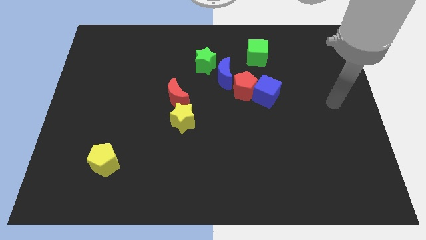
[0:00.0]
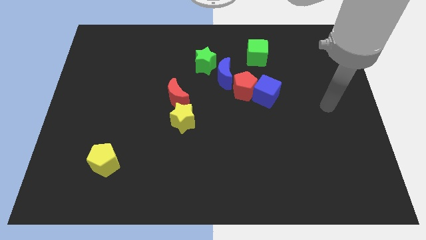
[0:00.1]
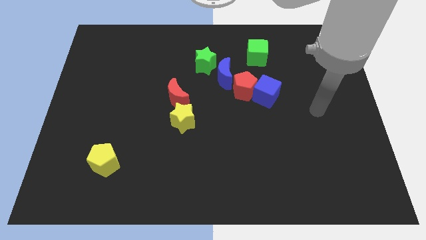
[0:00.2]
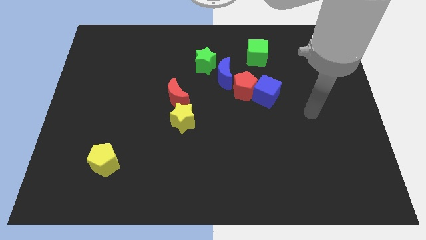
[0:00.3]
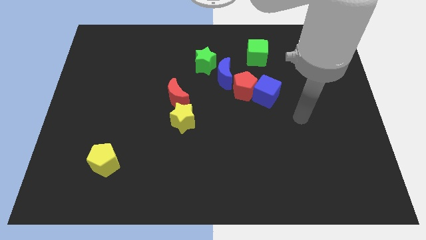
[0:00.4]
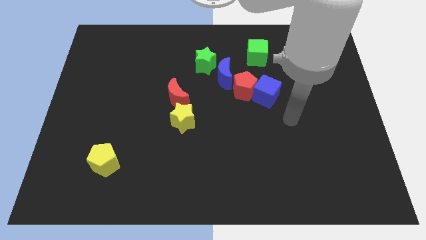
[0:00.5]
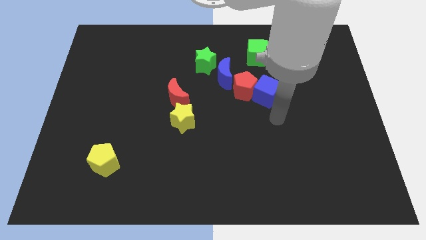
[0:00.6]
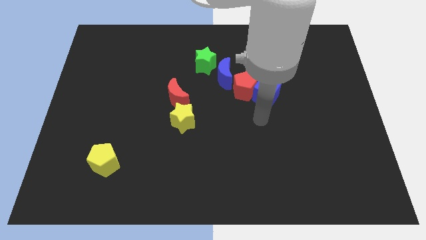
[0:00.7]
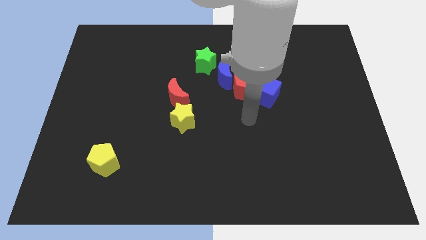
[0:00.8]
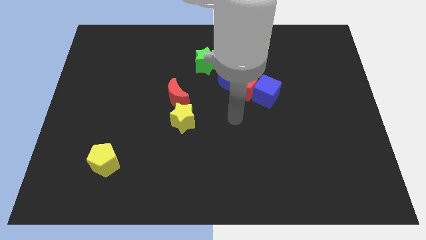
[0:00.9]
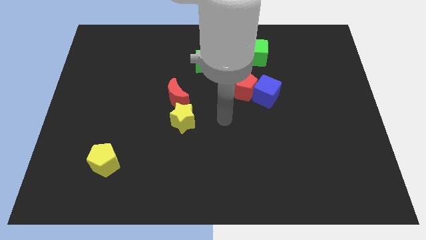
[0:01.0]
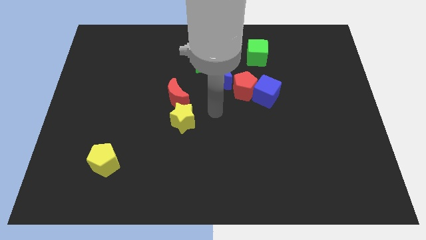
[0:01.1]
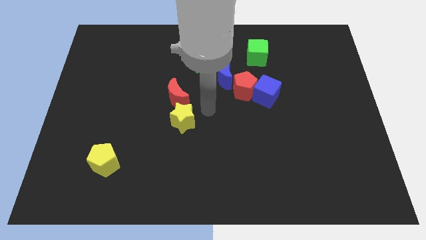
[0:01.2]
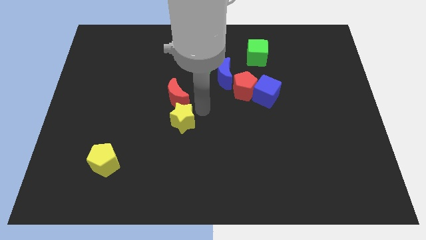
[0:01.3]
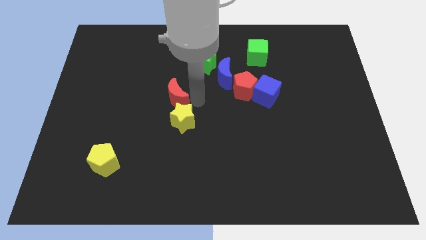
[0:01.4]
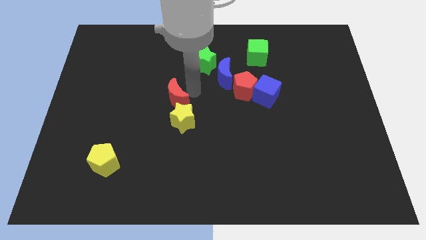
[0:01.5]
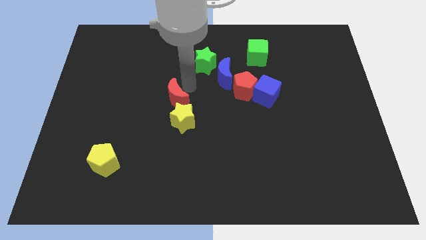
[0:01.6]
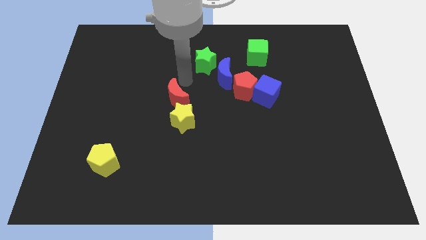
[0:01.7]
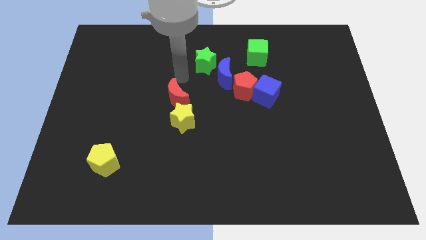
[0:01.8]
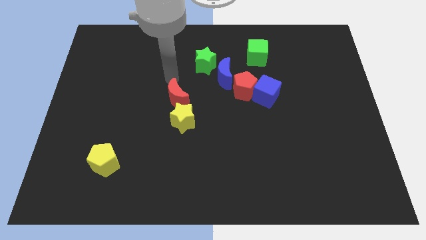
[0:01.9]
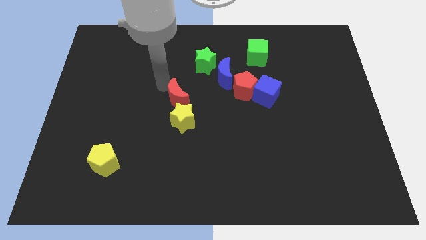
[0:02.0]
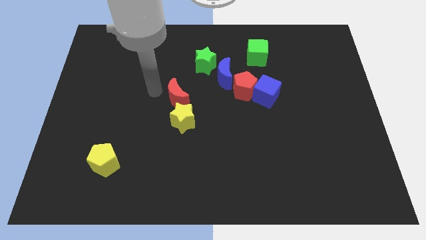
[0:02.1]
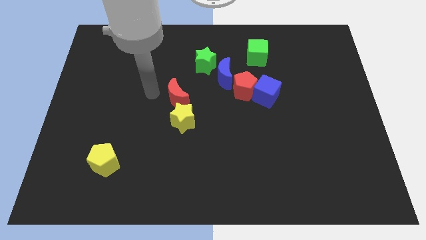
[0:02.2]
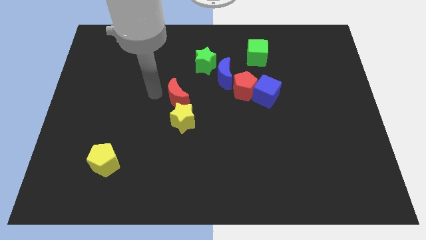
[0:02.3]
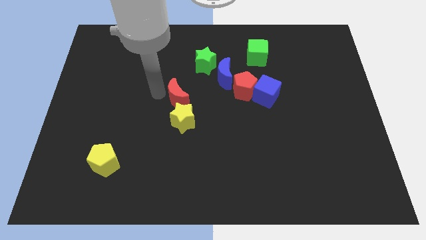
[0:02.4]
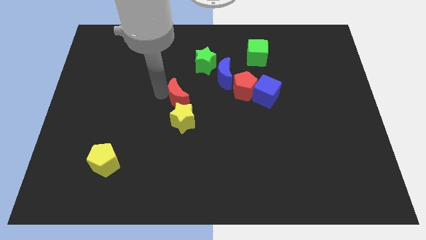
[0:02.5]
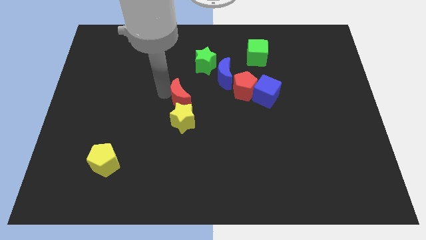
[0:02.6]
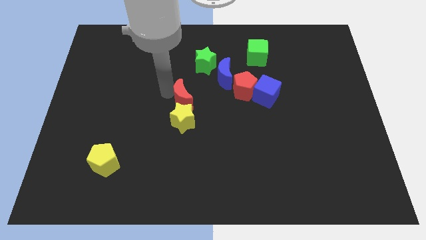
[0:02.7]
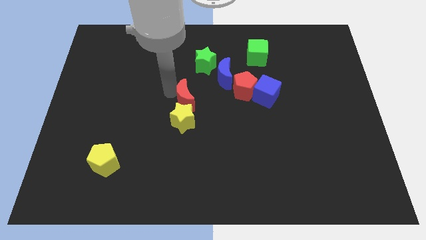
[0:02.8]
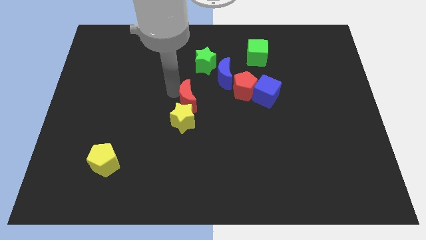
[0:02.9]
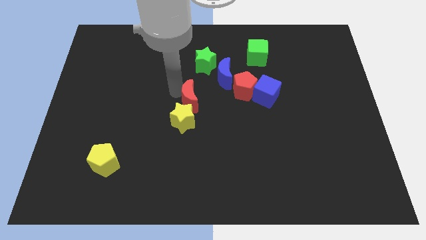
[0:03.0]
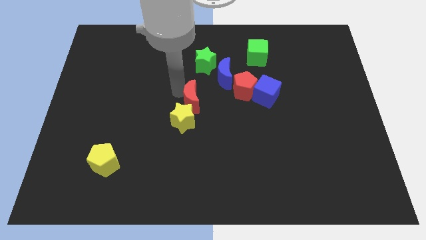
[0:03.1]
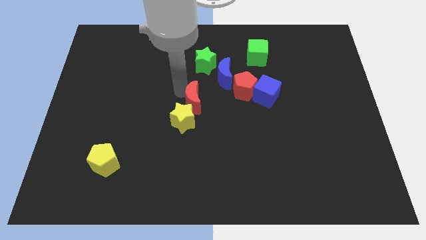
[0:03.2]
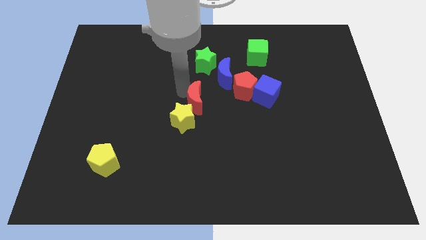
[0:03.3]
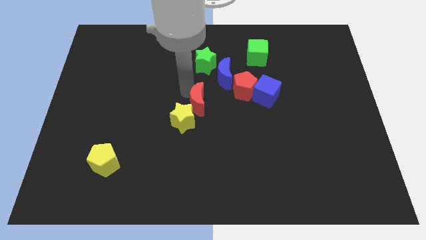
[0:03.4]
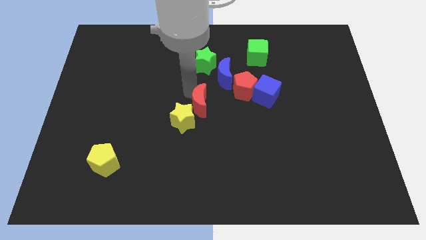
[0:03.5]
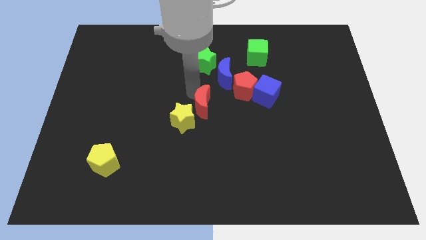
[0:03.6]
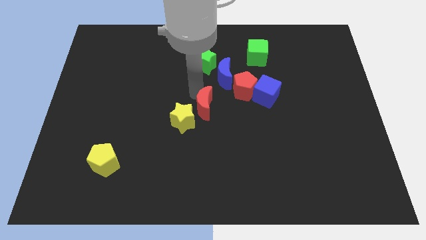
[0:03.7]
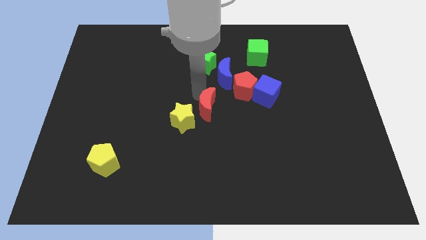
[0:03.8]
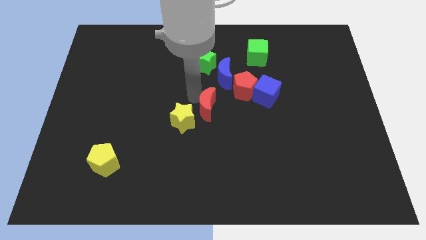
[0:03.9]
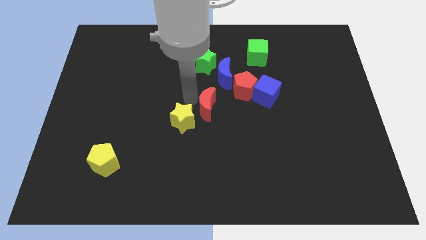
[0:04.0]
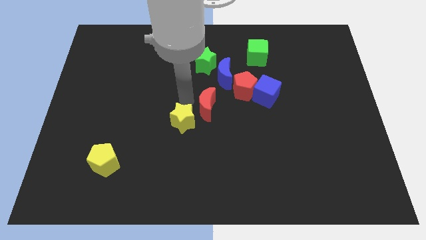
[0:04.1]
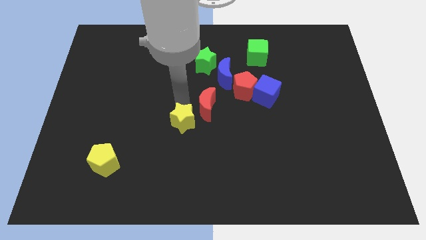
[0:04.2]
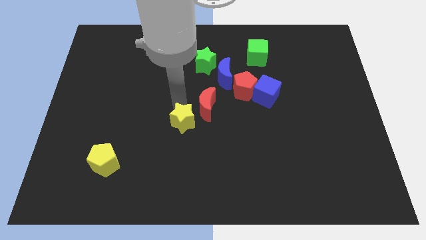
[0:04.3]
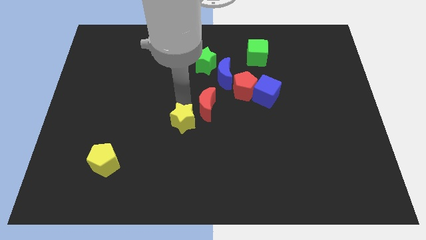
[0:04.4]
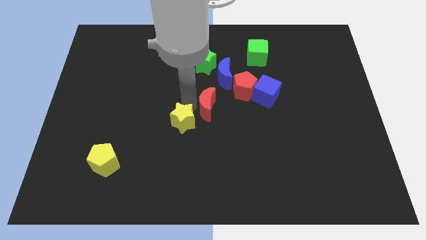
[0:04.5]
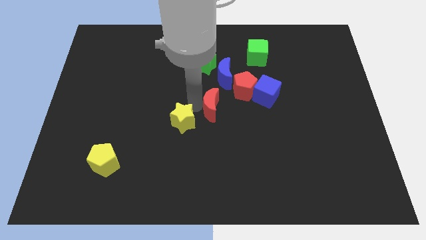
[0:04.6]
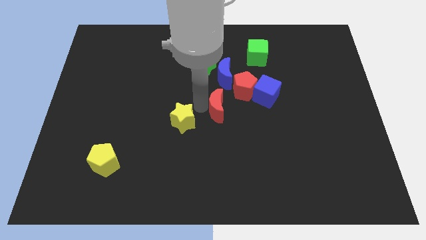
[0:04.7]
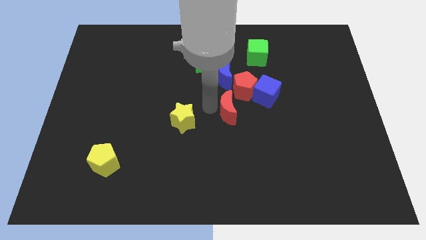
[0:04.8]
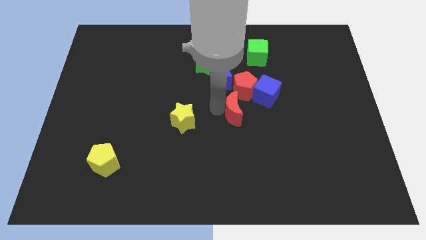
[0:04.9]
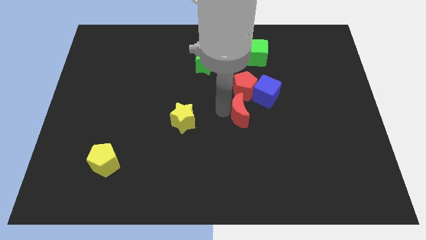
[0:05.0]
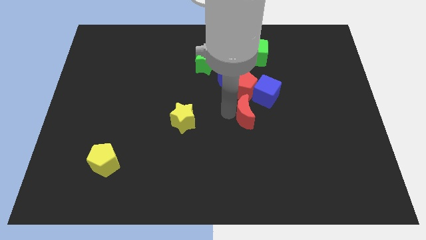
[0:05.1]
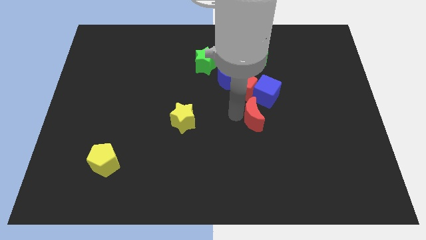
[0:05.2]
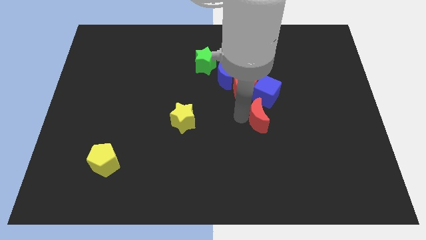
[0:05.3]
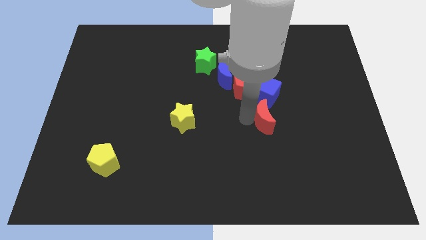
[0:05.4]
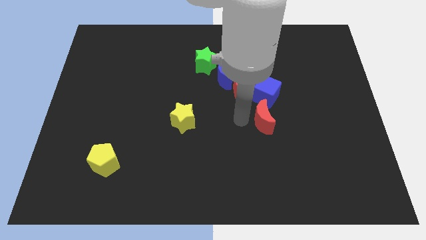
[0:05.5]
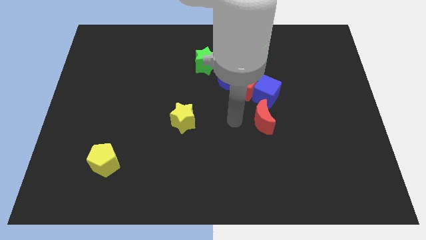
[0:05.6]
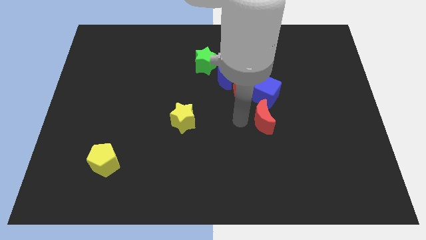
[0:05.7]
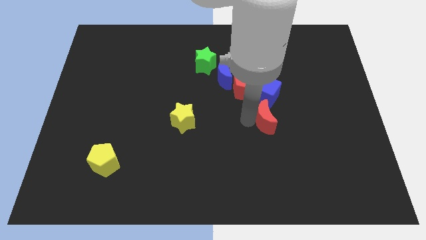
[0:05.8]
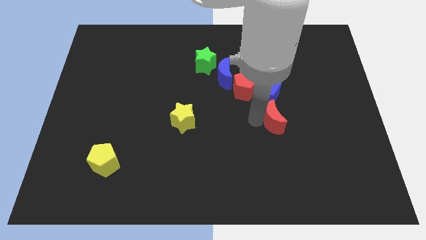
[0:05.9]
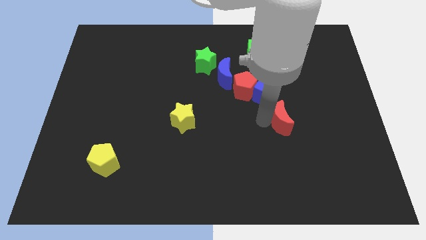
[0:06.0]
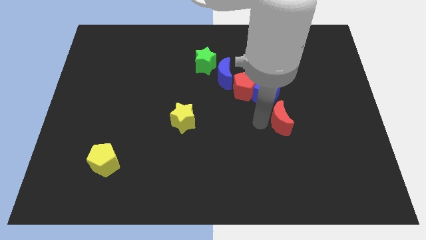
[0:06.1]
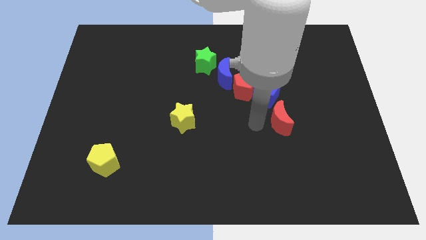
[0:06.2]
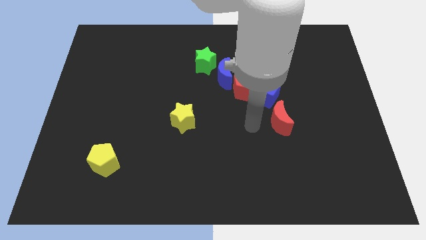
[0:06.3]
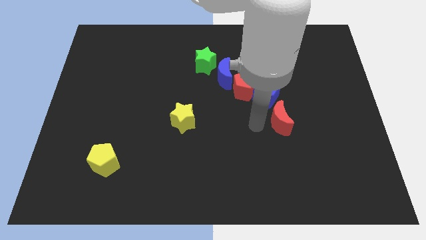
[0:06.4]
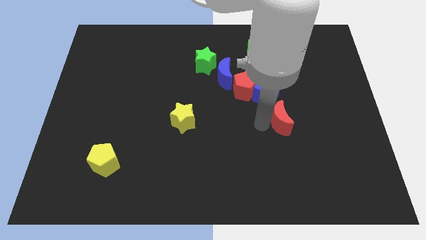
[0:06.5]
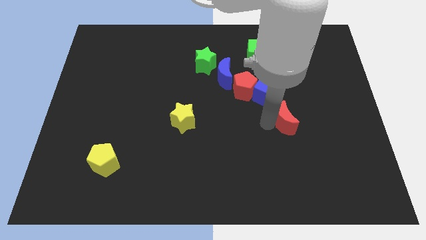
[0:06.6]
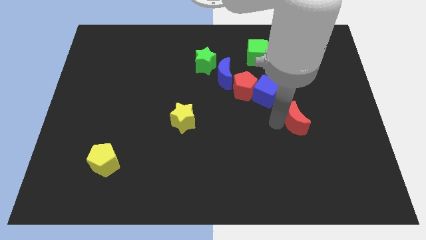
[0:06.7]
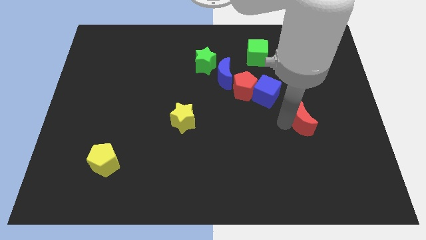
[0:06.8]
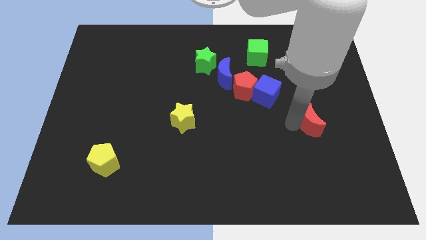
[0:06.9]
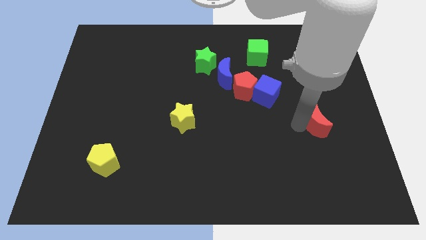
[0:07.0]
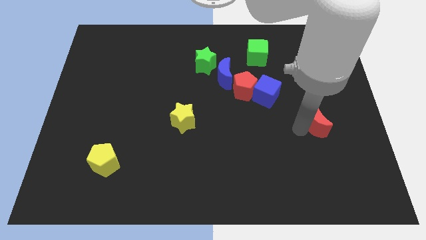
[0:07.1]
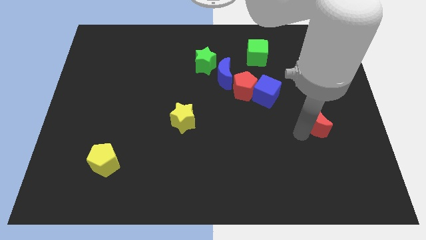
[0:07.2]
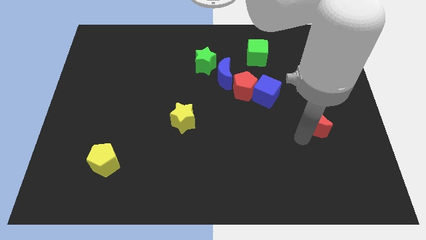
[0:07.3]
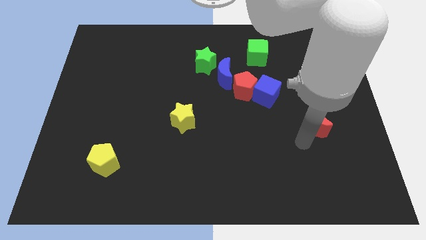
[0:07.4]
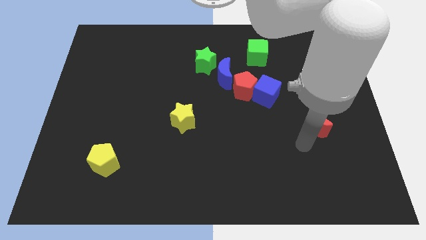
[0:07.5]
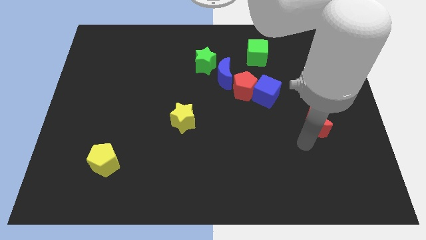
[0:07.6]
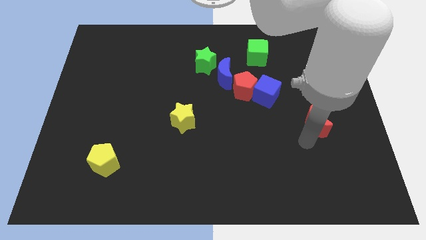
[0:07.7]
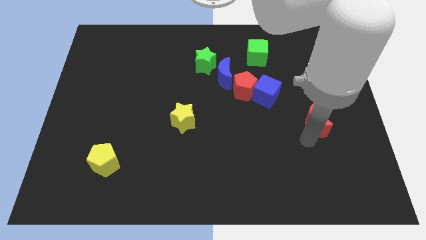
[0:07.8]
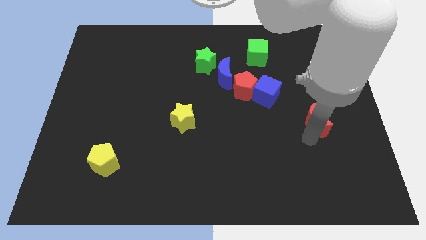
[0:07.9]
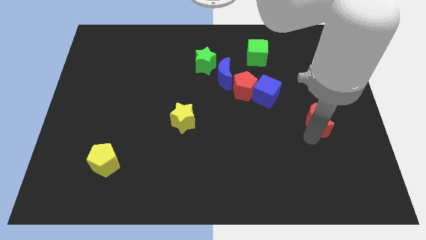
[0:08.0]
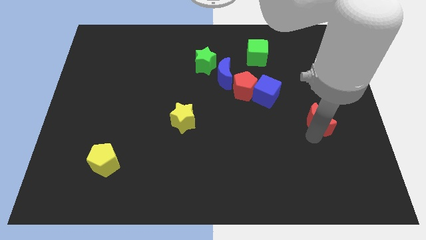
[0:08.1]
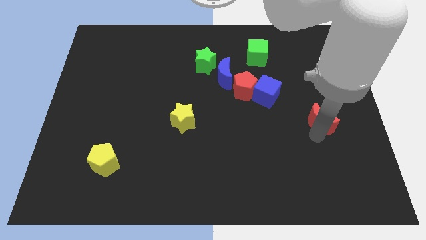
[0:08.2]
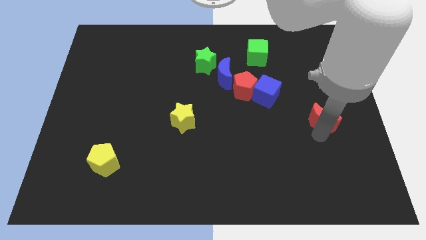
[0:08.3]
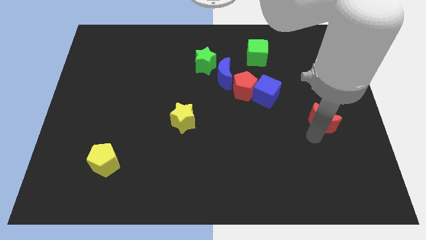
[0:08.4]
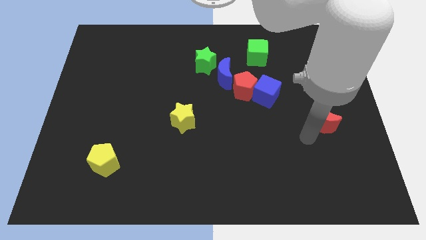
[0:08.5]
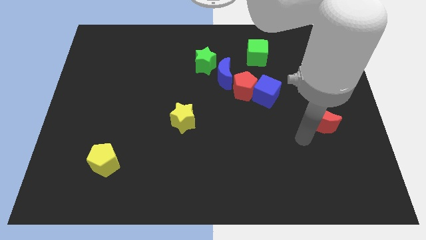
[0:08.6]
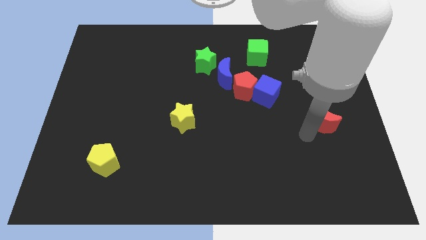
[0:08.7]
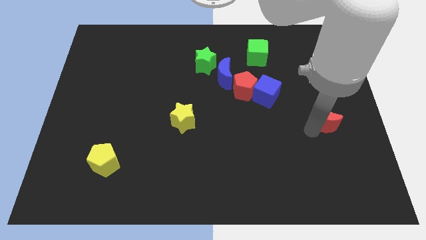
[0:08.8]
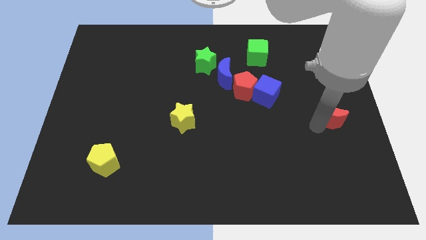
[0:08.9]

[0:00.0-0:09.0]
move the red moon to the right side
